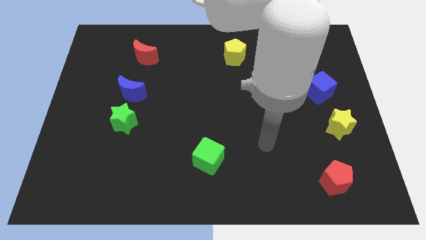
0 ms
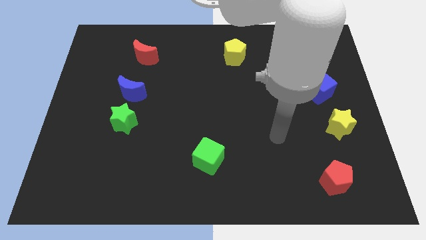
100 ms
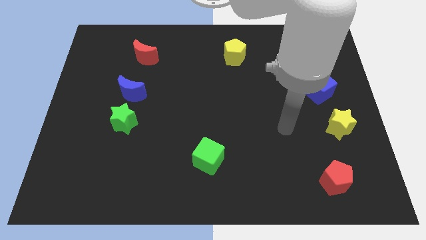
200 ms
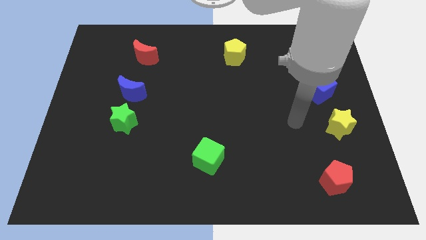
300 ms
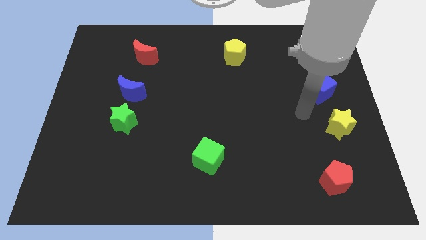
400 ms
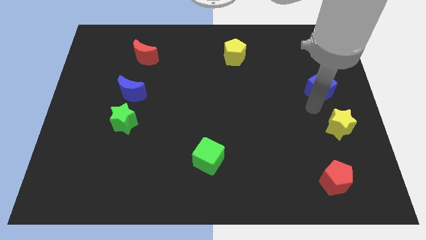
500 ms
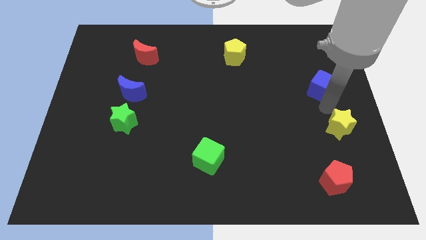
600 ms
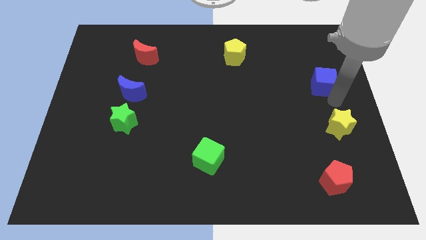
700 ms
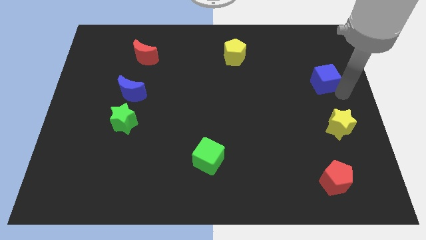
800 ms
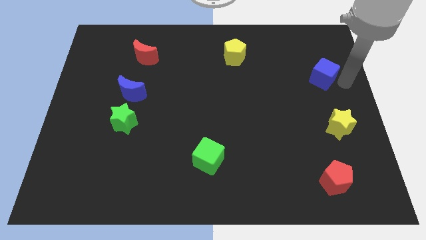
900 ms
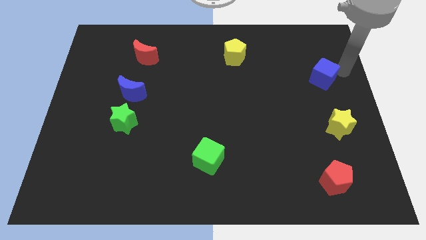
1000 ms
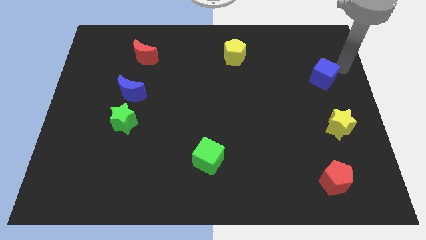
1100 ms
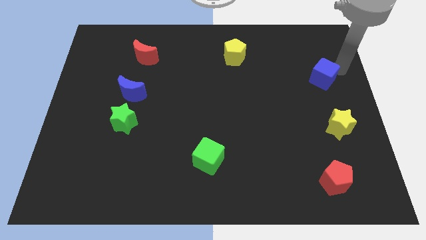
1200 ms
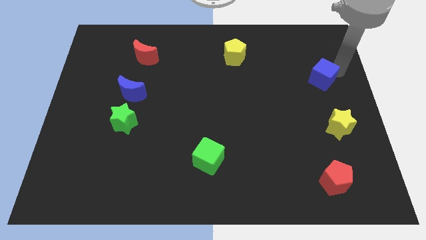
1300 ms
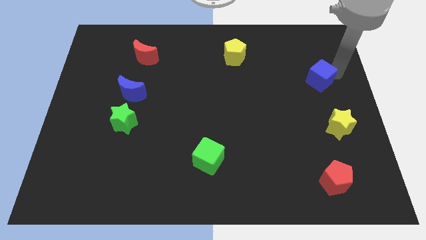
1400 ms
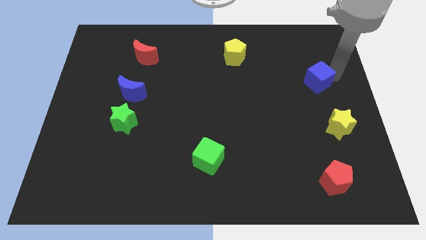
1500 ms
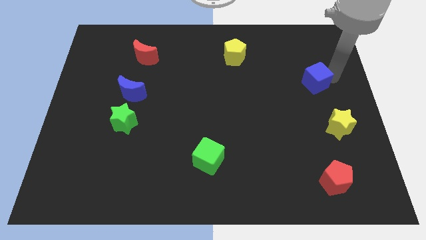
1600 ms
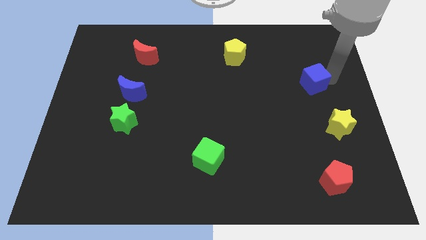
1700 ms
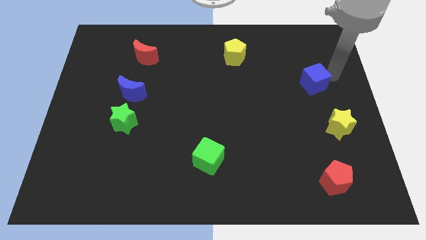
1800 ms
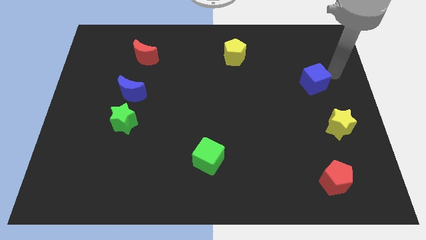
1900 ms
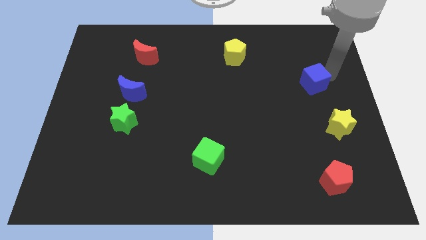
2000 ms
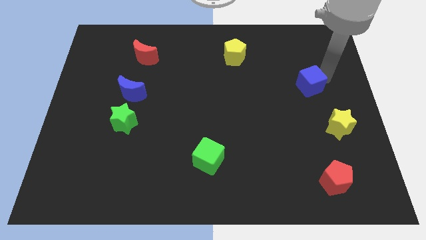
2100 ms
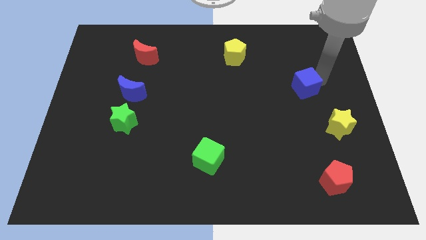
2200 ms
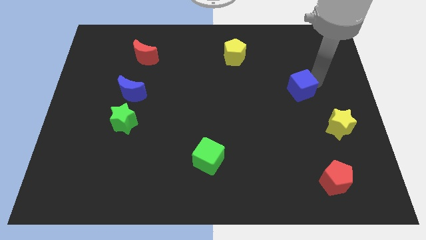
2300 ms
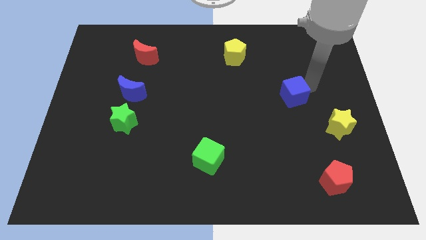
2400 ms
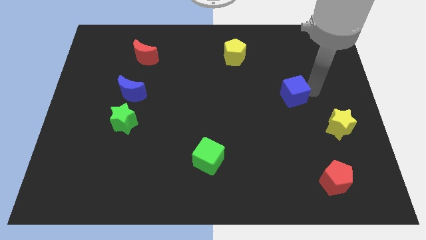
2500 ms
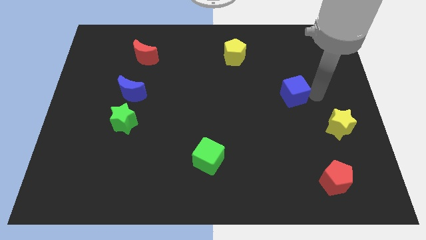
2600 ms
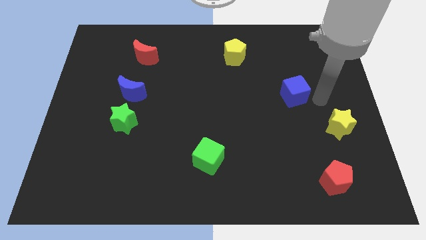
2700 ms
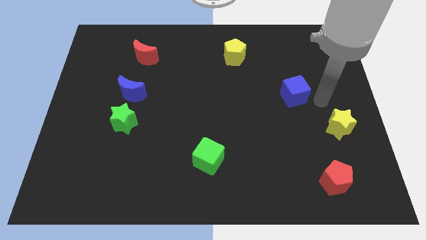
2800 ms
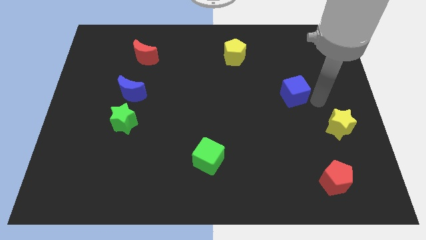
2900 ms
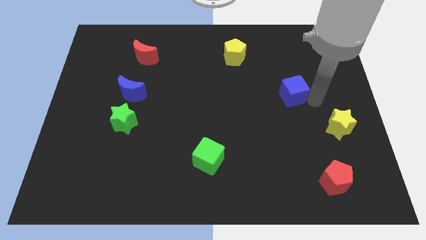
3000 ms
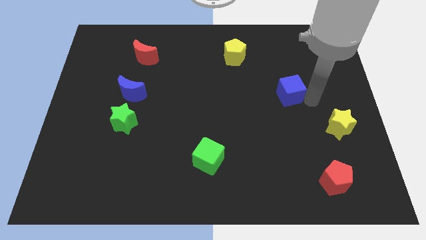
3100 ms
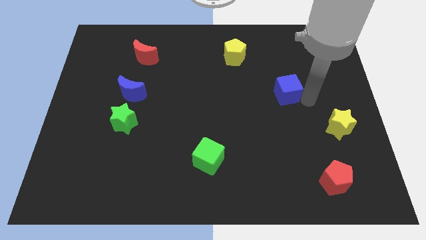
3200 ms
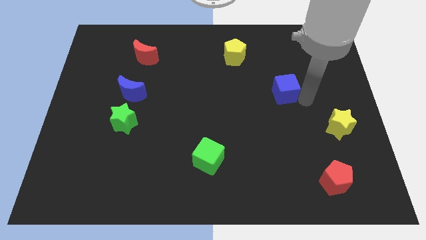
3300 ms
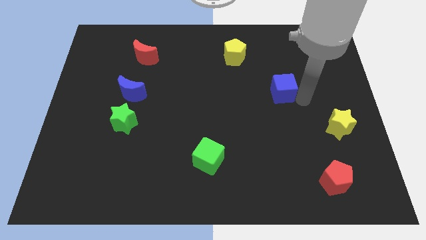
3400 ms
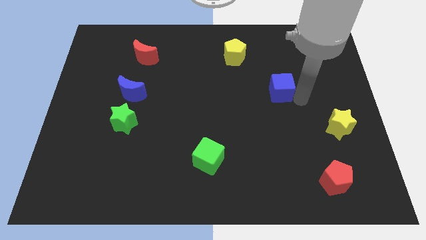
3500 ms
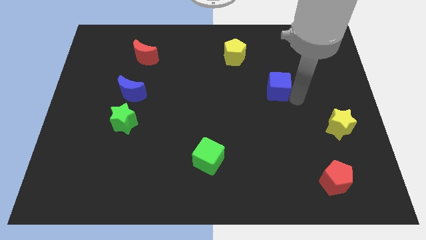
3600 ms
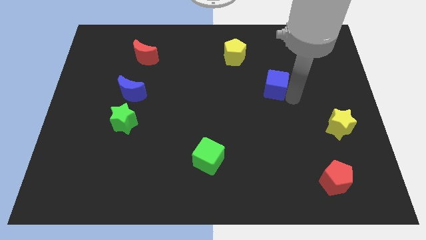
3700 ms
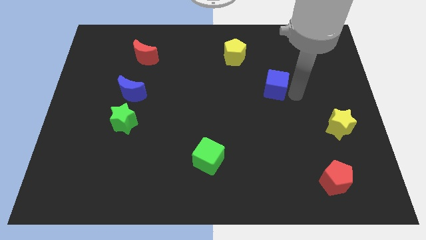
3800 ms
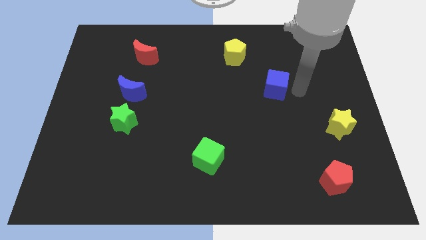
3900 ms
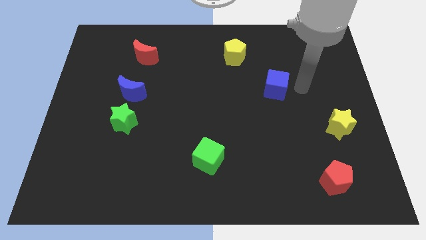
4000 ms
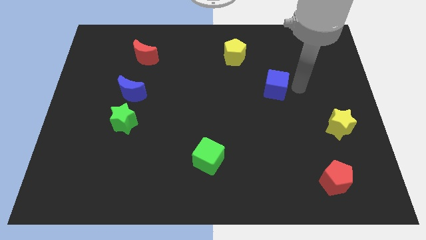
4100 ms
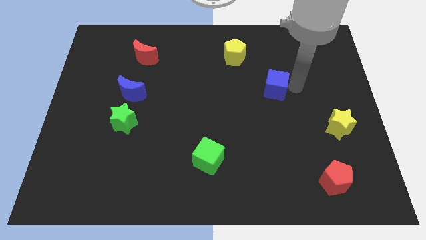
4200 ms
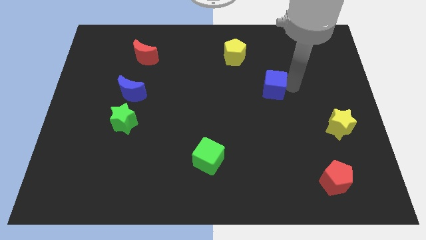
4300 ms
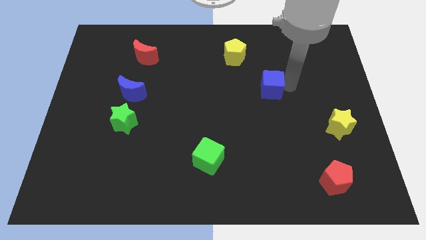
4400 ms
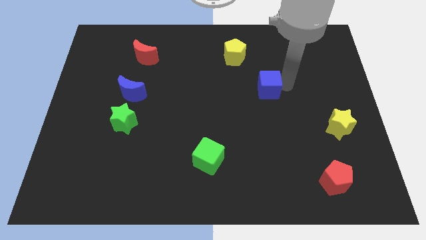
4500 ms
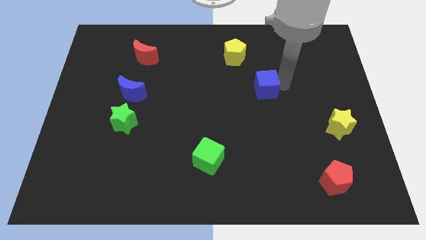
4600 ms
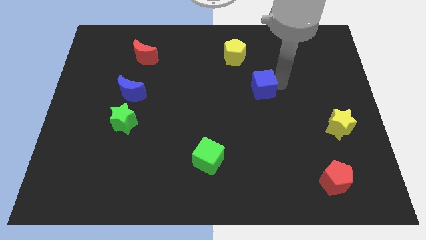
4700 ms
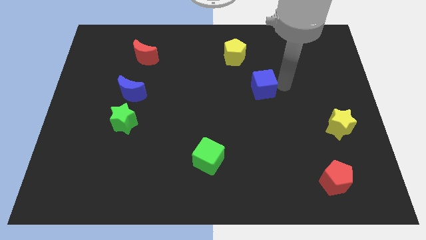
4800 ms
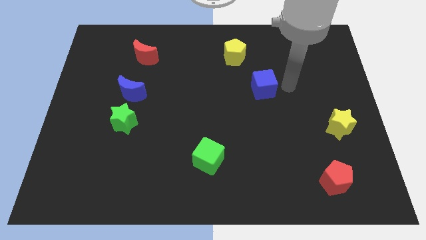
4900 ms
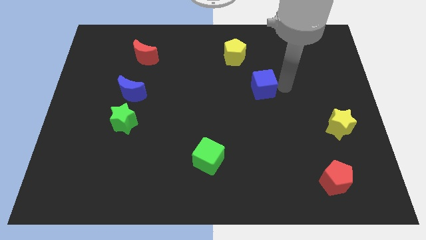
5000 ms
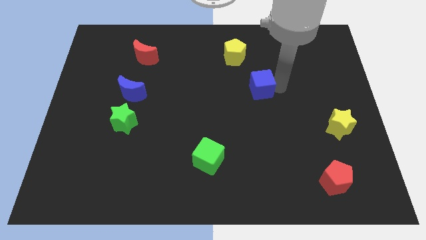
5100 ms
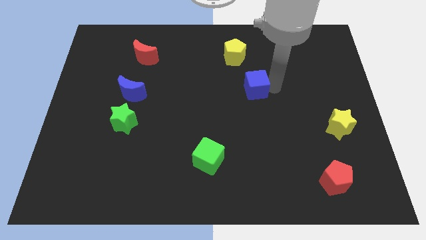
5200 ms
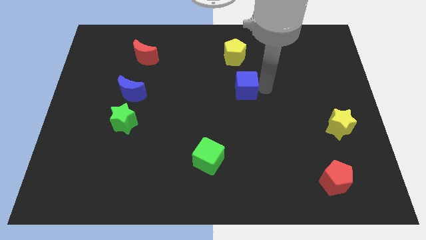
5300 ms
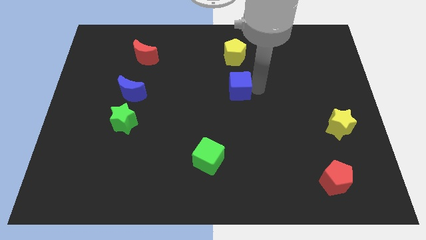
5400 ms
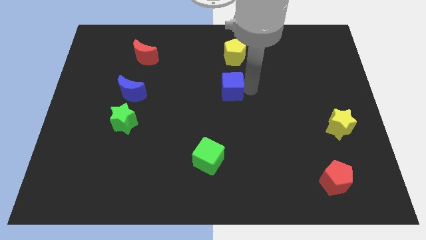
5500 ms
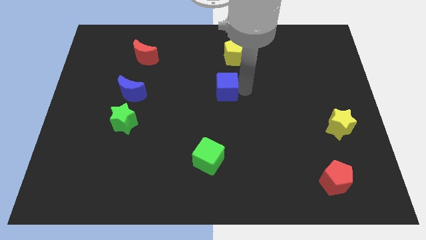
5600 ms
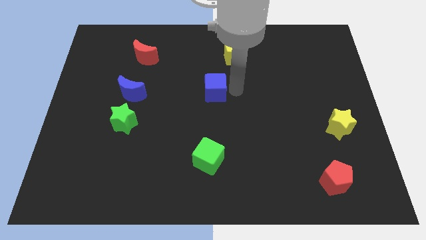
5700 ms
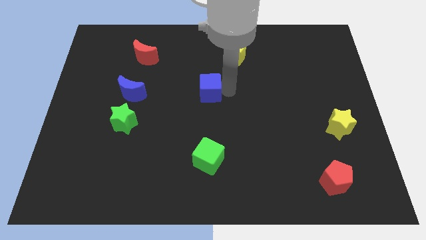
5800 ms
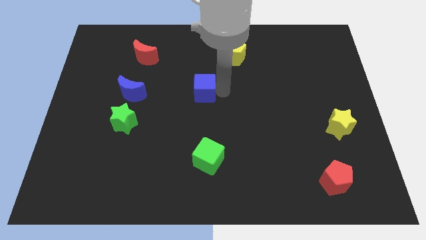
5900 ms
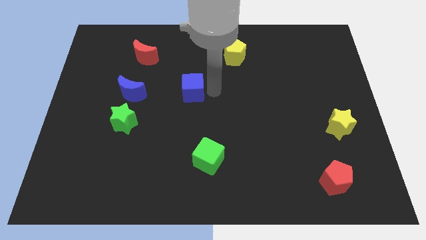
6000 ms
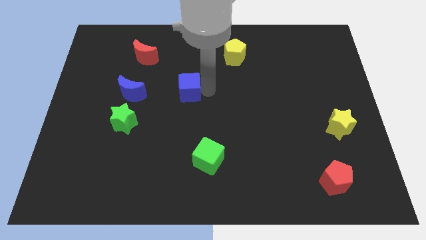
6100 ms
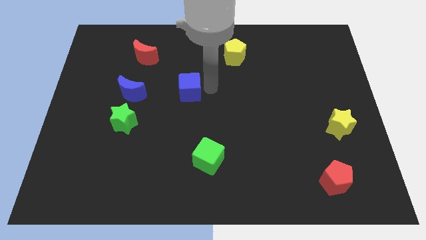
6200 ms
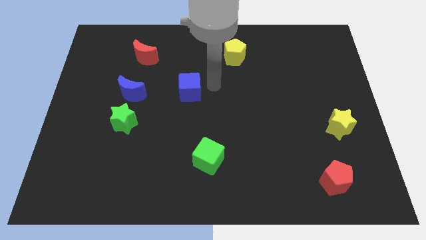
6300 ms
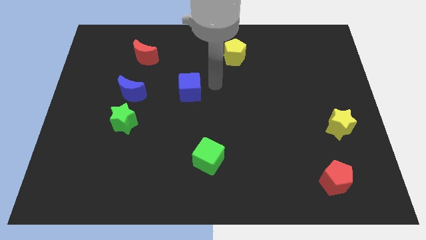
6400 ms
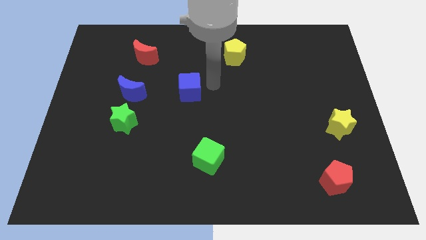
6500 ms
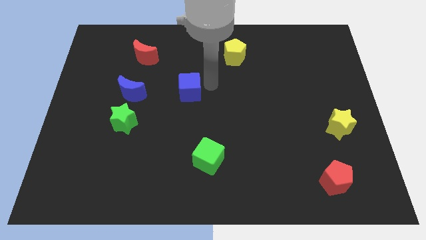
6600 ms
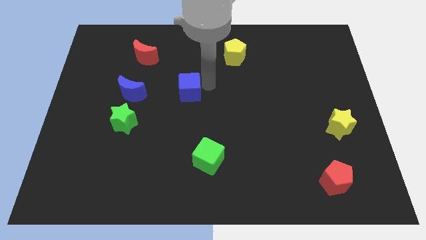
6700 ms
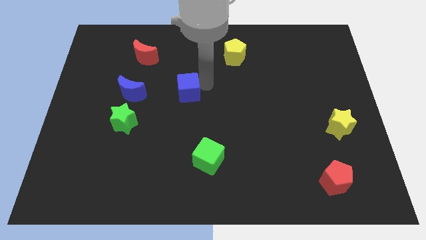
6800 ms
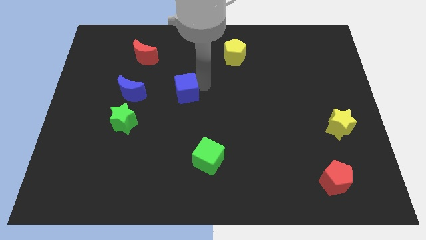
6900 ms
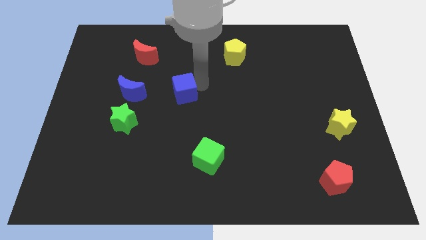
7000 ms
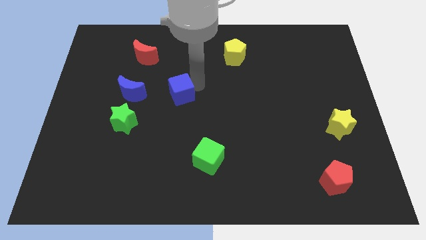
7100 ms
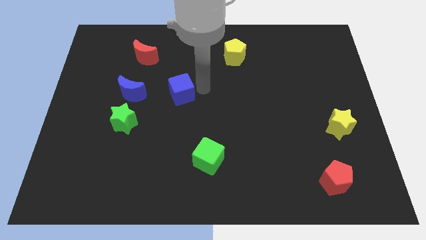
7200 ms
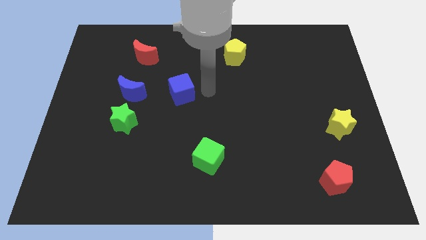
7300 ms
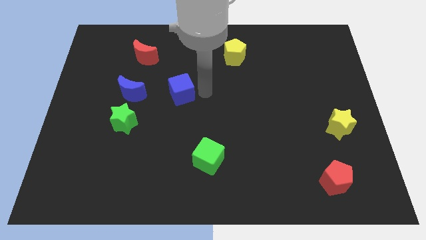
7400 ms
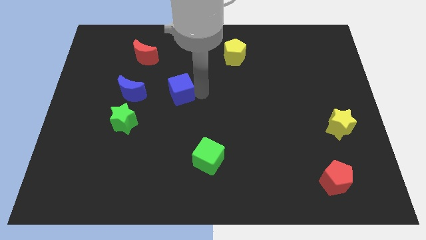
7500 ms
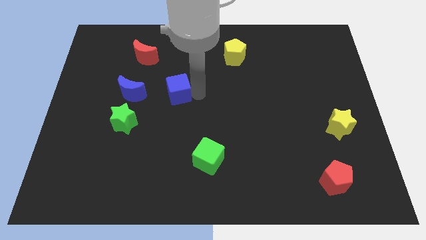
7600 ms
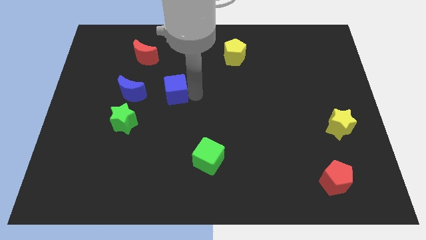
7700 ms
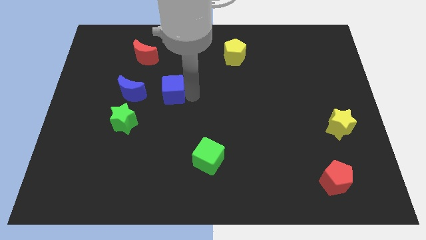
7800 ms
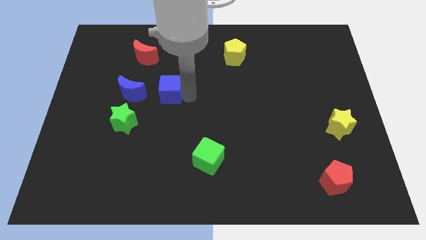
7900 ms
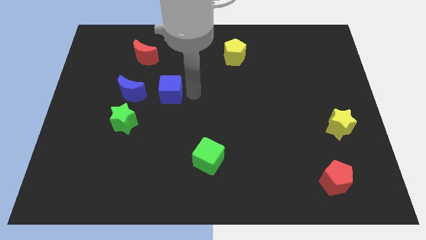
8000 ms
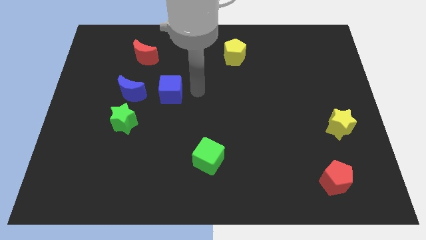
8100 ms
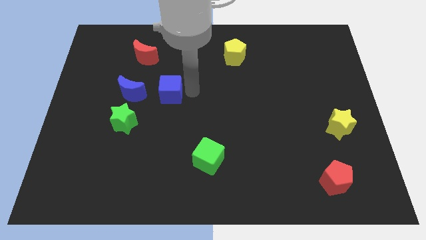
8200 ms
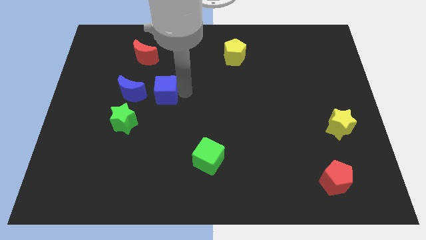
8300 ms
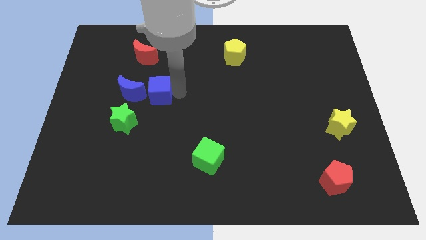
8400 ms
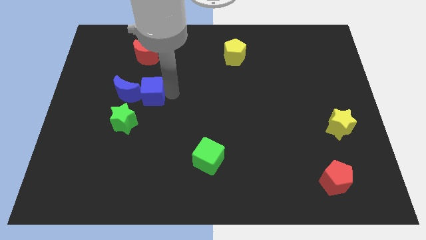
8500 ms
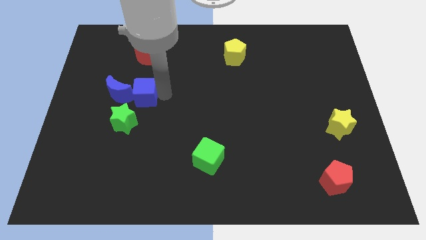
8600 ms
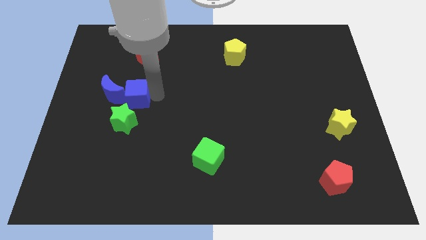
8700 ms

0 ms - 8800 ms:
put the blue cube to the blue moon
